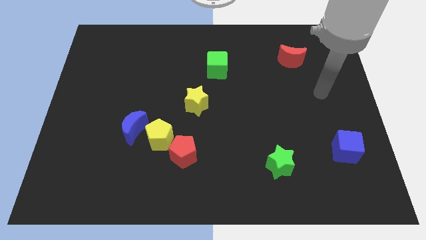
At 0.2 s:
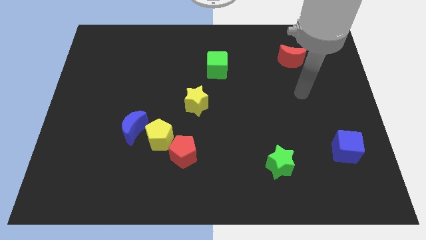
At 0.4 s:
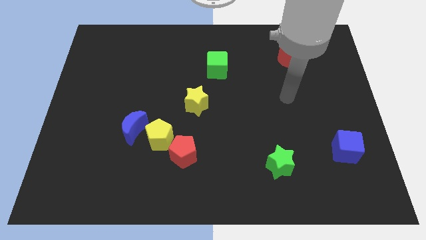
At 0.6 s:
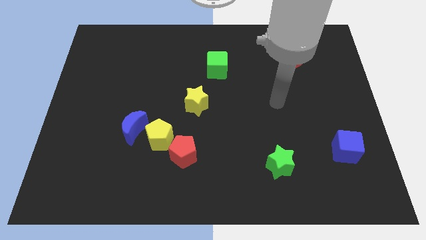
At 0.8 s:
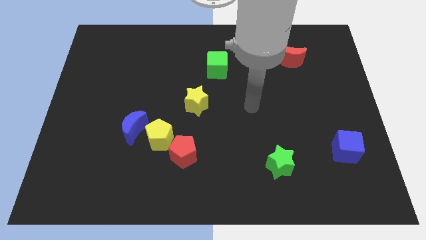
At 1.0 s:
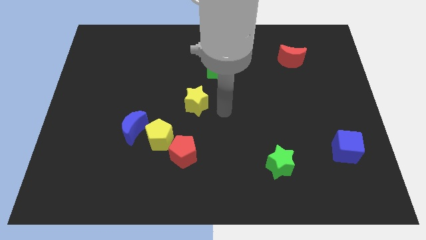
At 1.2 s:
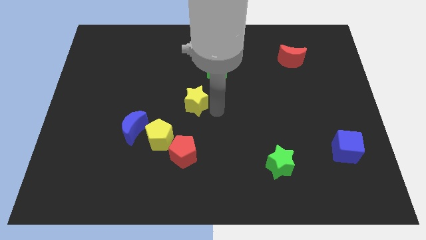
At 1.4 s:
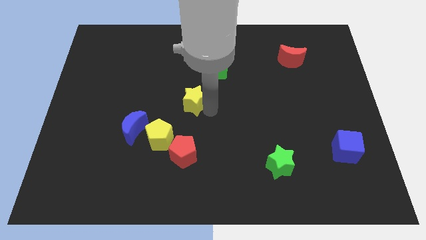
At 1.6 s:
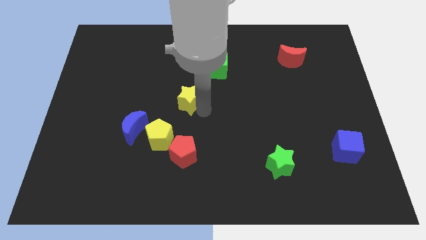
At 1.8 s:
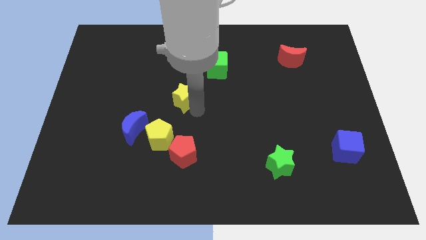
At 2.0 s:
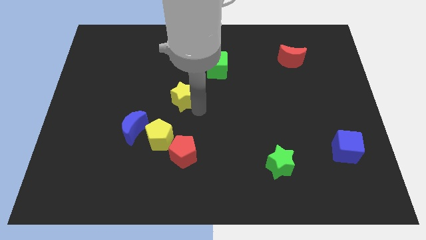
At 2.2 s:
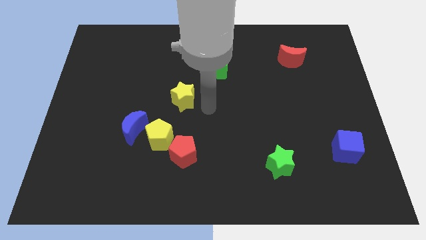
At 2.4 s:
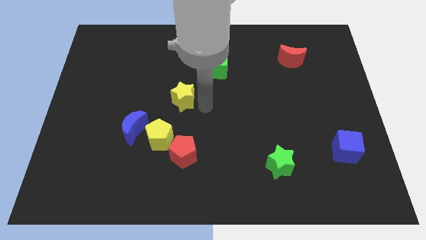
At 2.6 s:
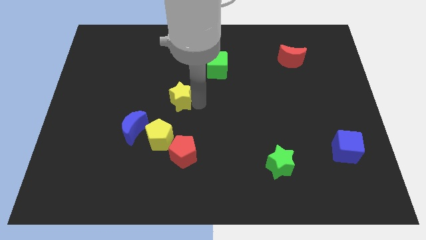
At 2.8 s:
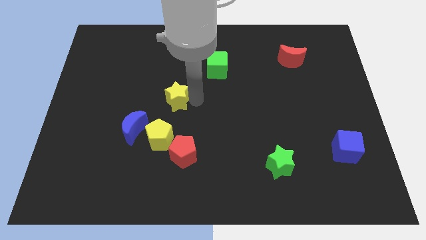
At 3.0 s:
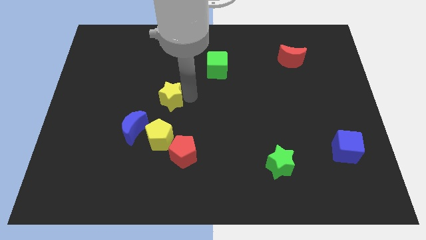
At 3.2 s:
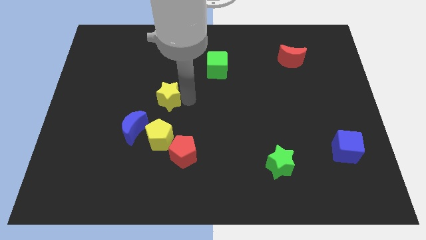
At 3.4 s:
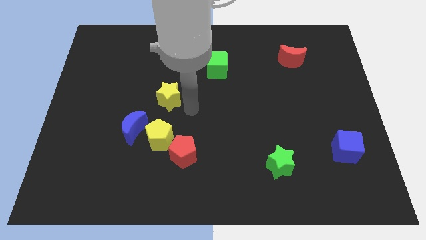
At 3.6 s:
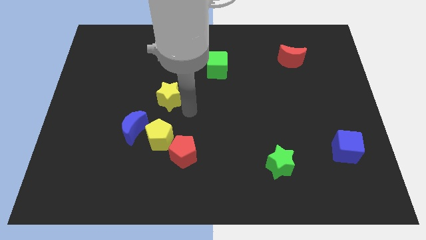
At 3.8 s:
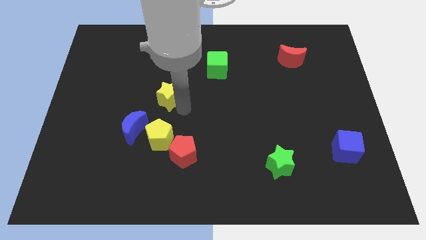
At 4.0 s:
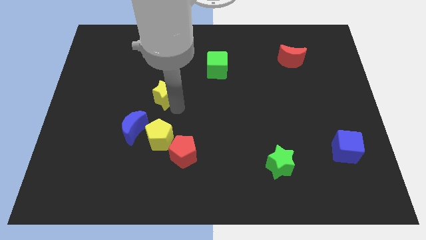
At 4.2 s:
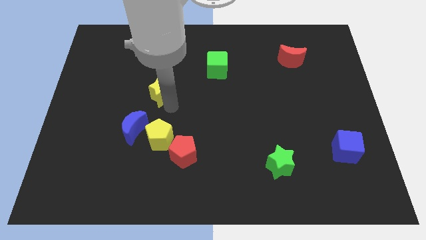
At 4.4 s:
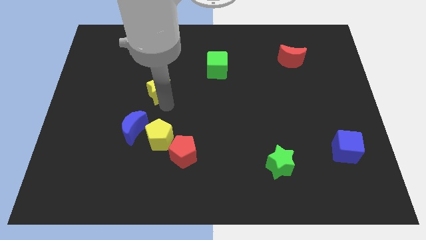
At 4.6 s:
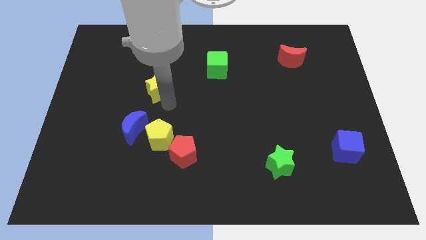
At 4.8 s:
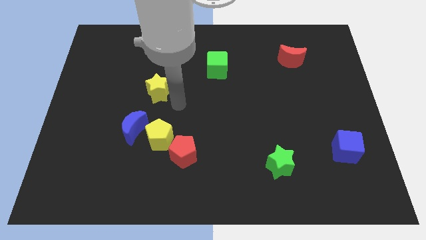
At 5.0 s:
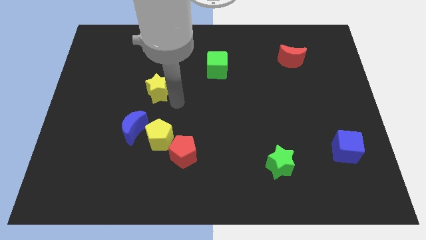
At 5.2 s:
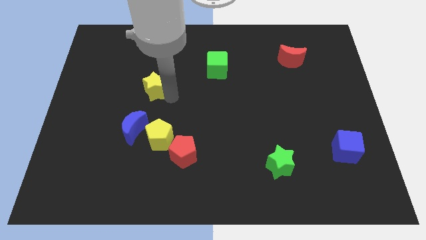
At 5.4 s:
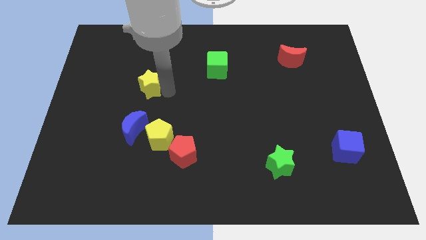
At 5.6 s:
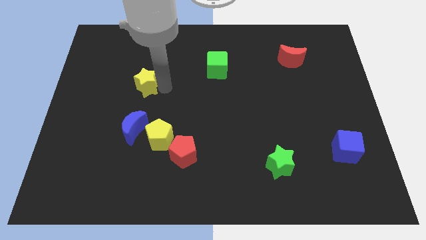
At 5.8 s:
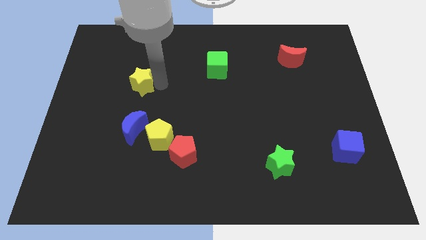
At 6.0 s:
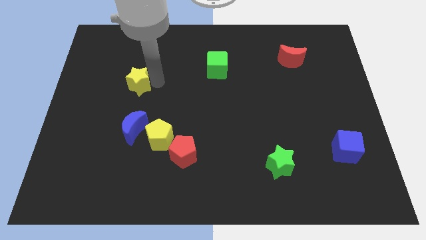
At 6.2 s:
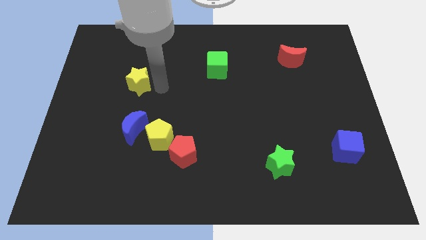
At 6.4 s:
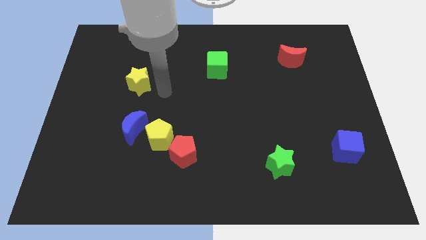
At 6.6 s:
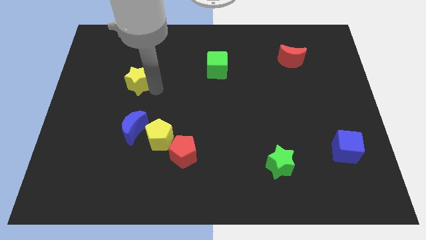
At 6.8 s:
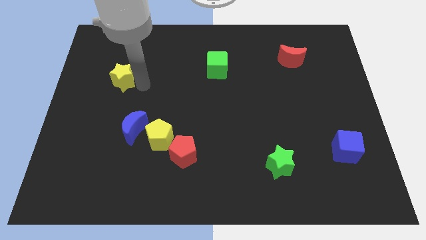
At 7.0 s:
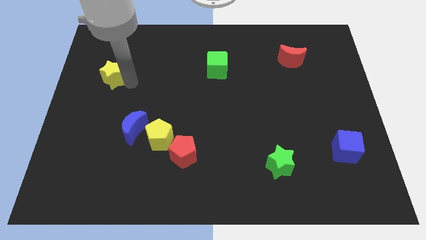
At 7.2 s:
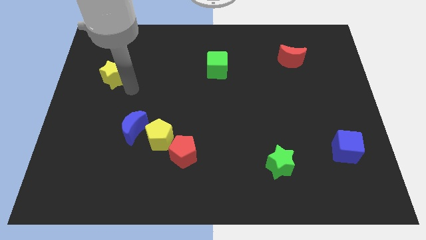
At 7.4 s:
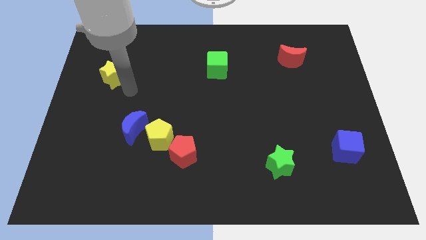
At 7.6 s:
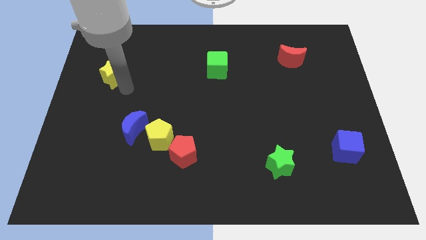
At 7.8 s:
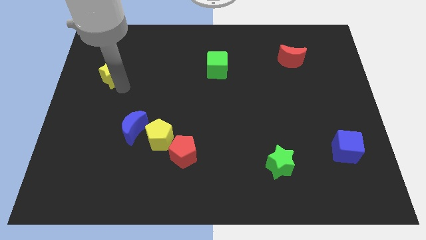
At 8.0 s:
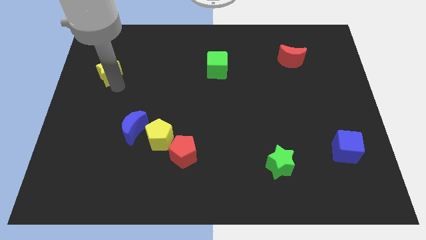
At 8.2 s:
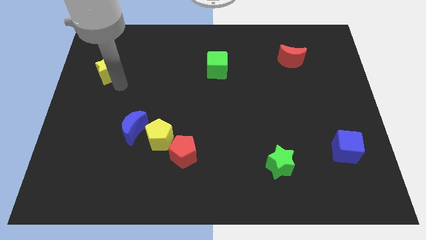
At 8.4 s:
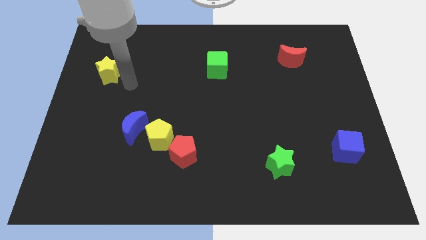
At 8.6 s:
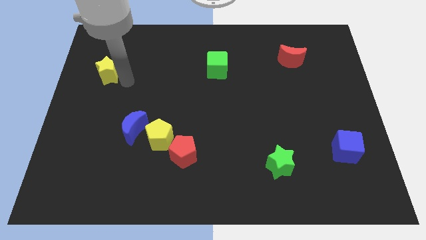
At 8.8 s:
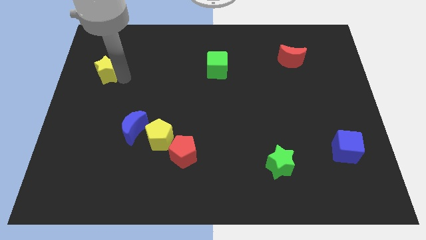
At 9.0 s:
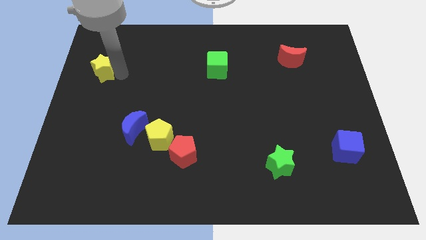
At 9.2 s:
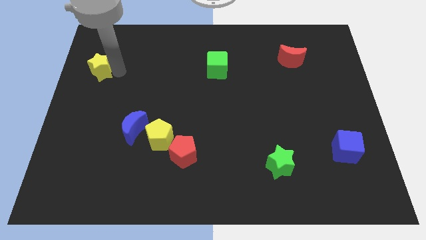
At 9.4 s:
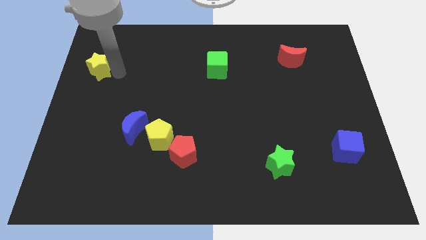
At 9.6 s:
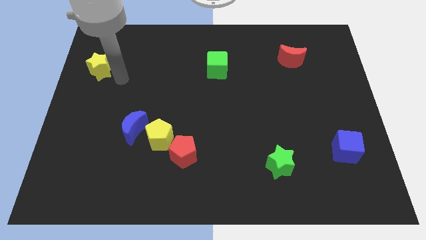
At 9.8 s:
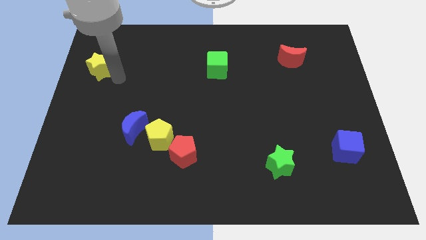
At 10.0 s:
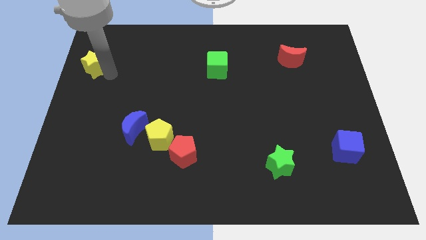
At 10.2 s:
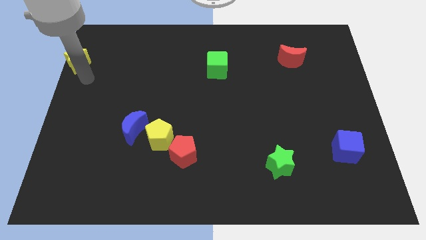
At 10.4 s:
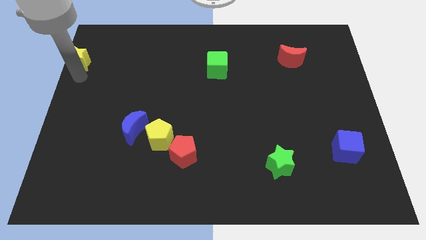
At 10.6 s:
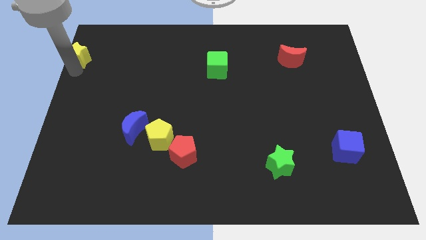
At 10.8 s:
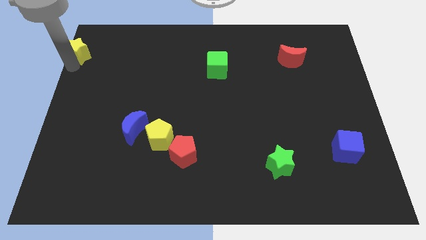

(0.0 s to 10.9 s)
move the yellow star to the top left

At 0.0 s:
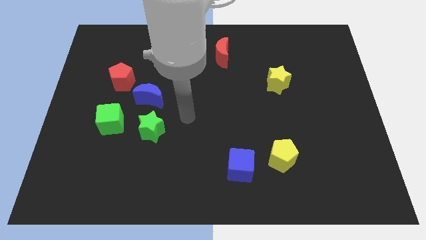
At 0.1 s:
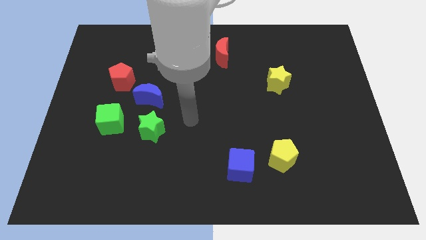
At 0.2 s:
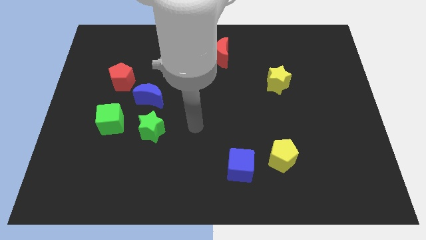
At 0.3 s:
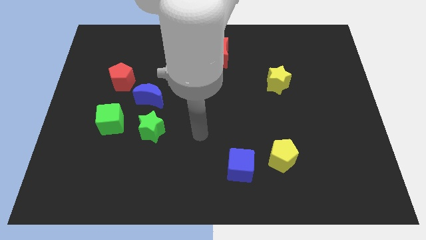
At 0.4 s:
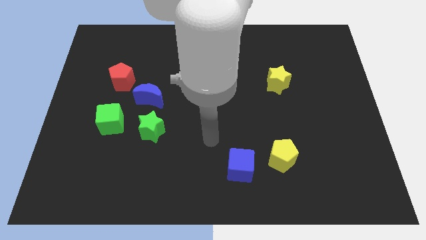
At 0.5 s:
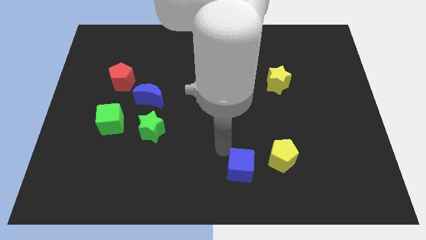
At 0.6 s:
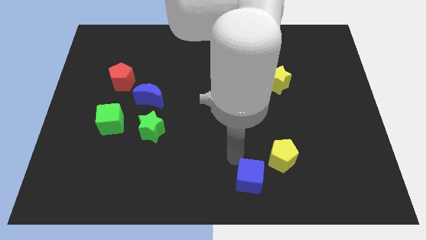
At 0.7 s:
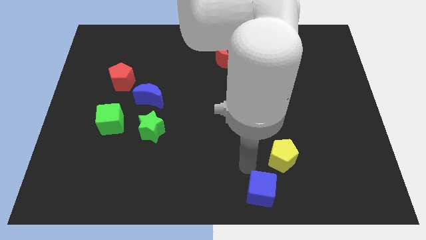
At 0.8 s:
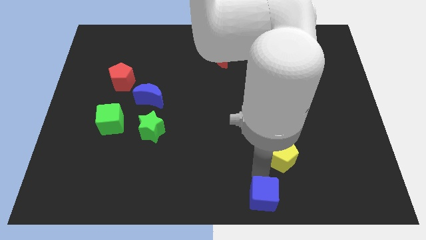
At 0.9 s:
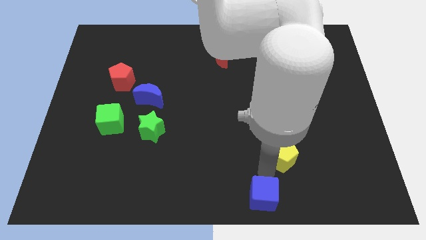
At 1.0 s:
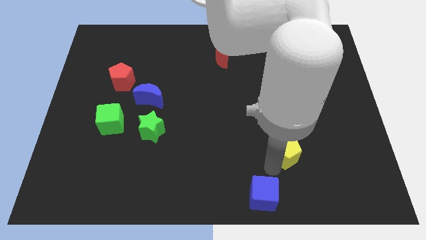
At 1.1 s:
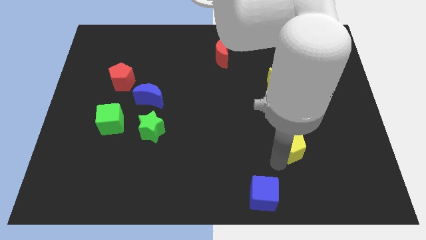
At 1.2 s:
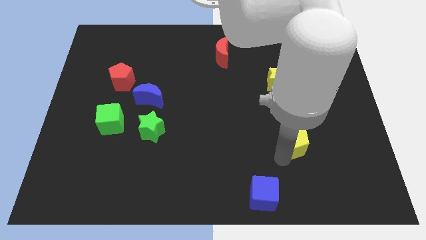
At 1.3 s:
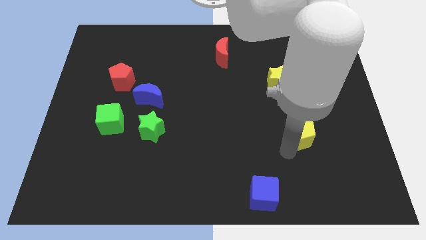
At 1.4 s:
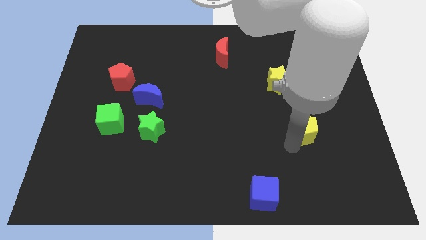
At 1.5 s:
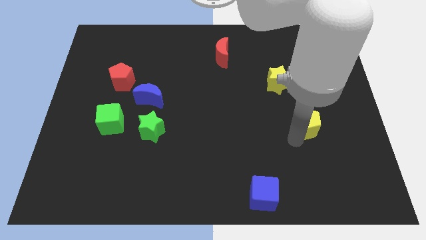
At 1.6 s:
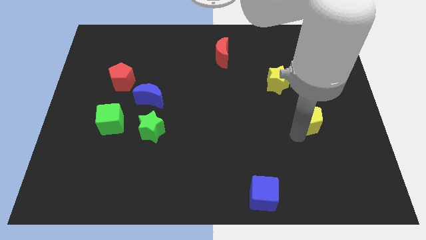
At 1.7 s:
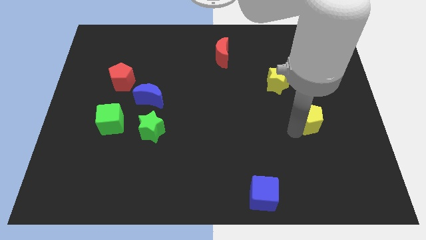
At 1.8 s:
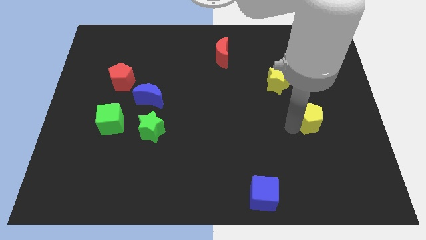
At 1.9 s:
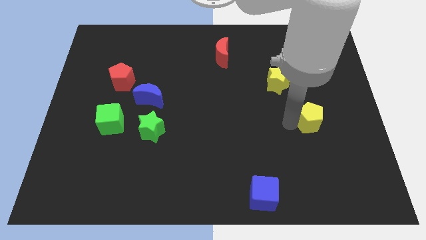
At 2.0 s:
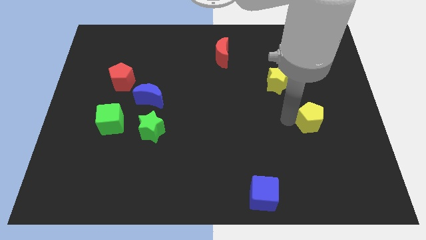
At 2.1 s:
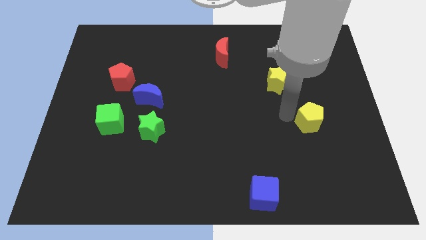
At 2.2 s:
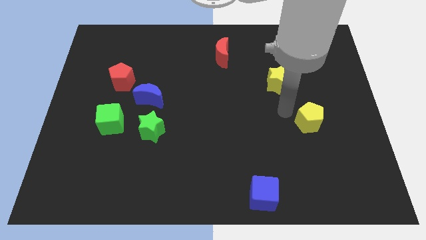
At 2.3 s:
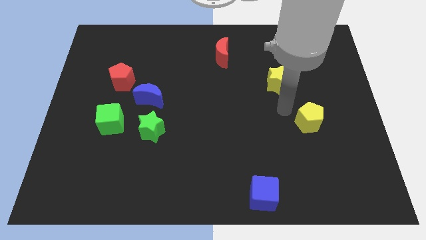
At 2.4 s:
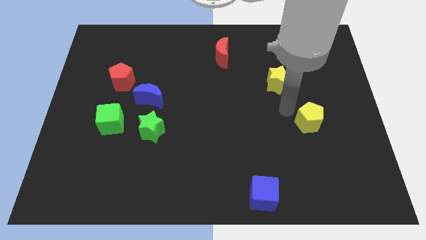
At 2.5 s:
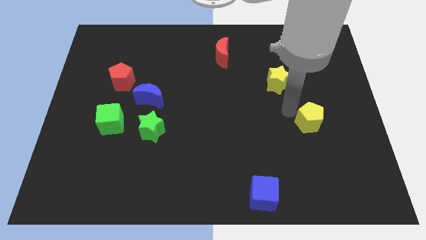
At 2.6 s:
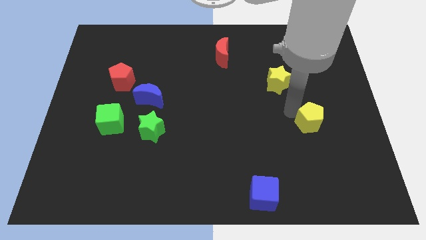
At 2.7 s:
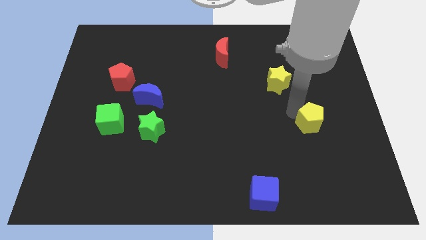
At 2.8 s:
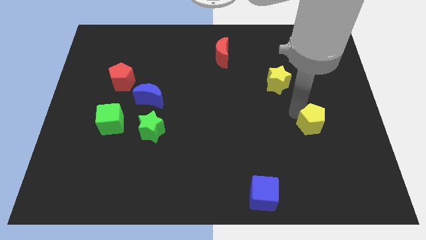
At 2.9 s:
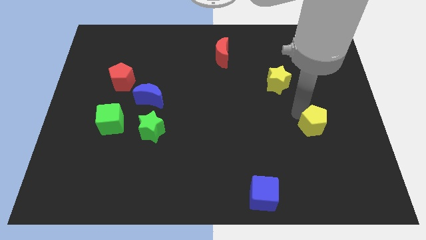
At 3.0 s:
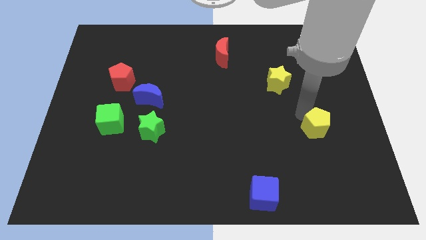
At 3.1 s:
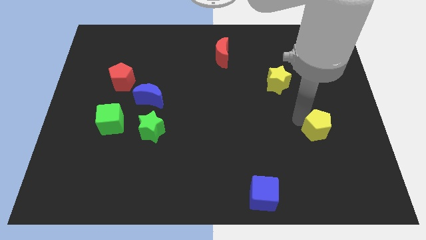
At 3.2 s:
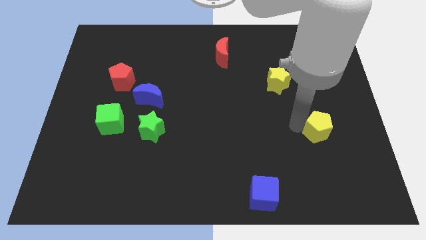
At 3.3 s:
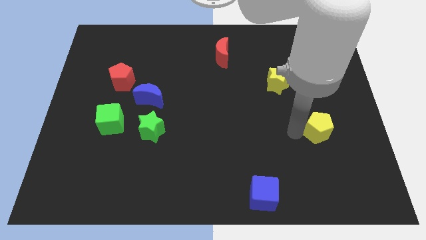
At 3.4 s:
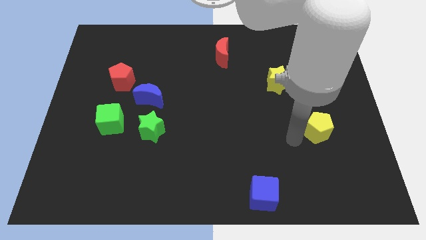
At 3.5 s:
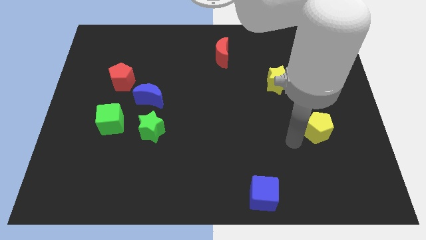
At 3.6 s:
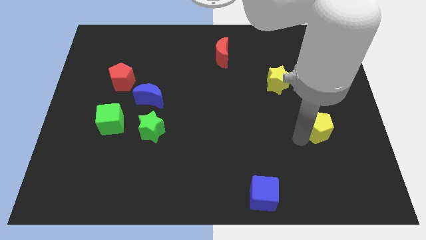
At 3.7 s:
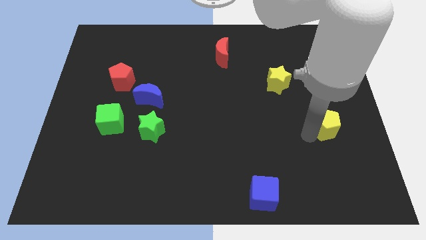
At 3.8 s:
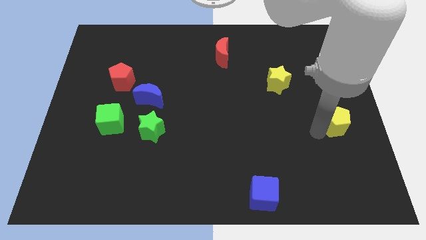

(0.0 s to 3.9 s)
put the yellow pentagon to the right side
